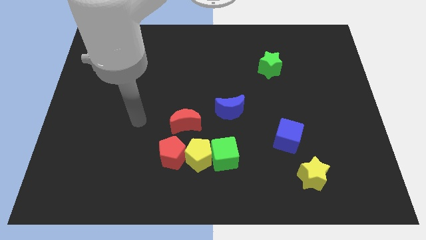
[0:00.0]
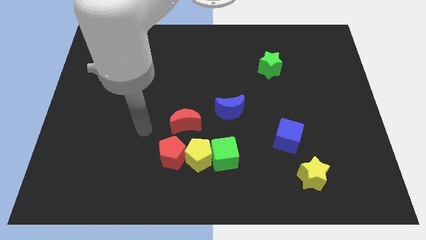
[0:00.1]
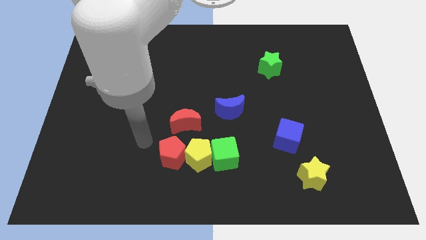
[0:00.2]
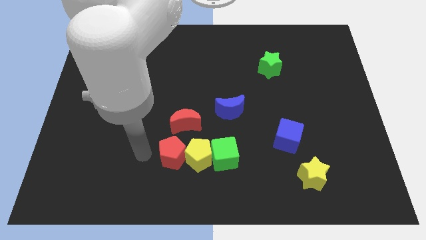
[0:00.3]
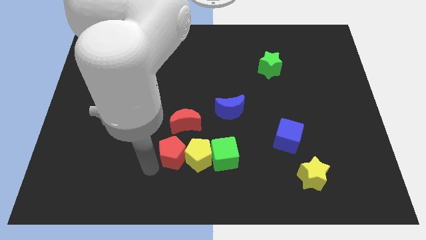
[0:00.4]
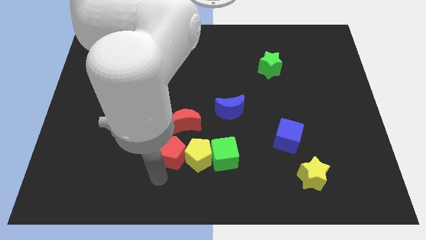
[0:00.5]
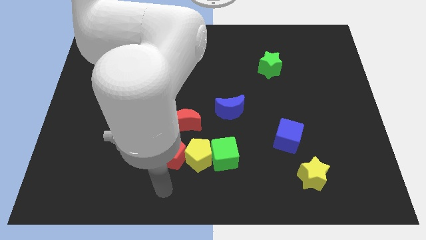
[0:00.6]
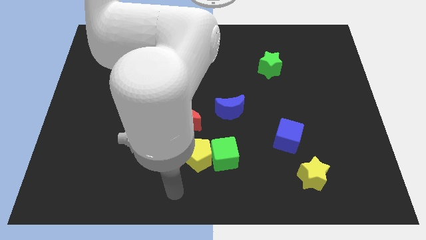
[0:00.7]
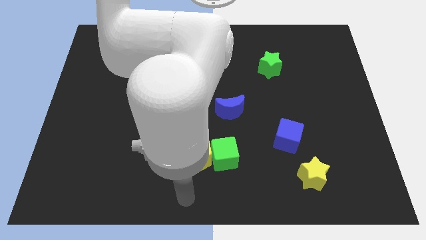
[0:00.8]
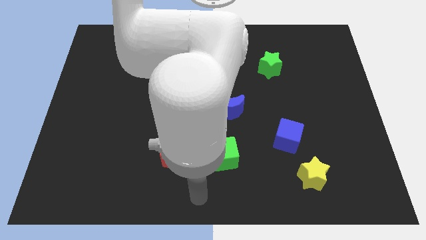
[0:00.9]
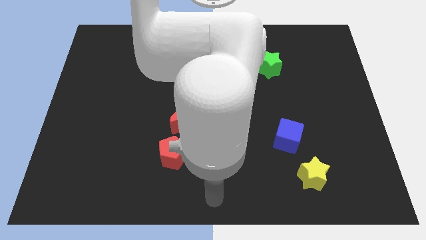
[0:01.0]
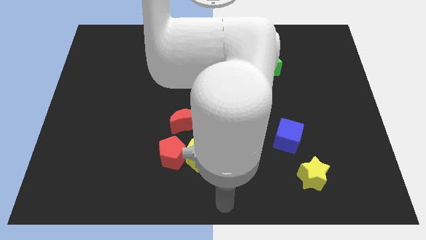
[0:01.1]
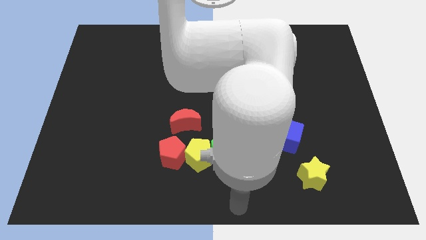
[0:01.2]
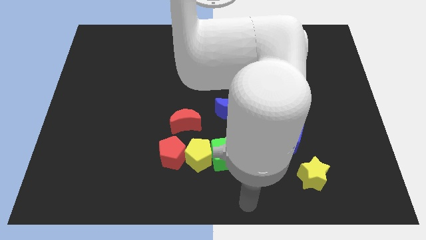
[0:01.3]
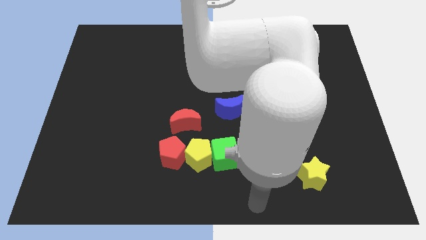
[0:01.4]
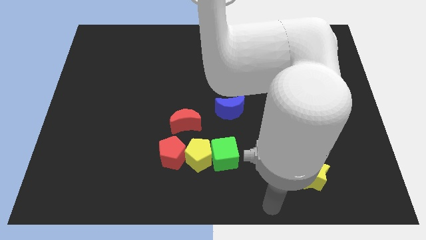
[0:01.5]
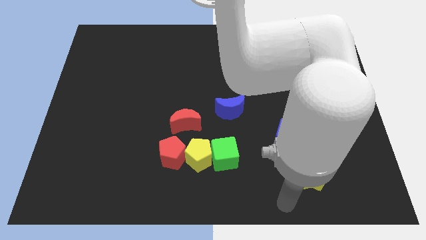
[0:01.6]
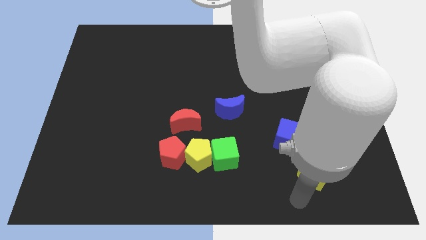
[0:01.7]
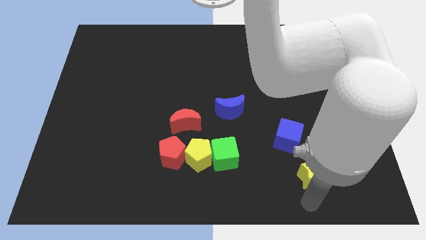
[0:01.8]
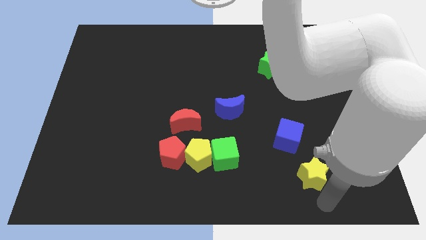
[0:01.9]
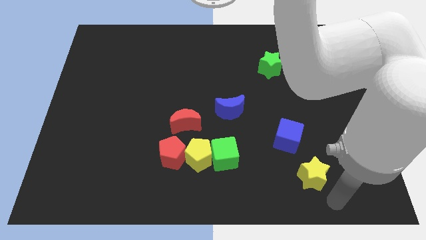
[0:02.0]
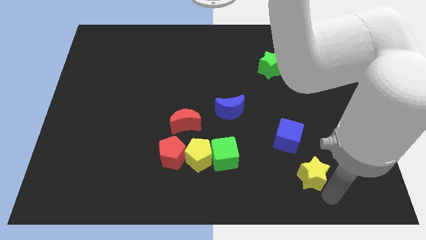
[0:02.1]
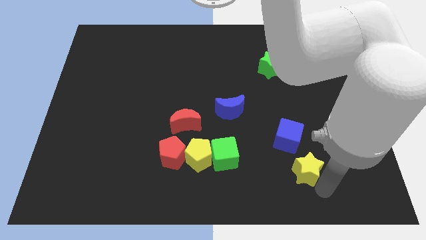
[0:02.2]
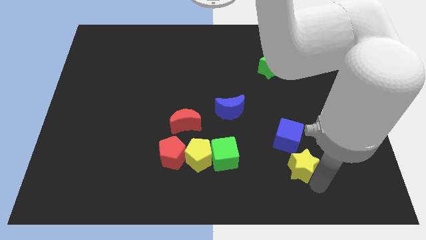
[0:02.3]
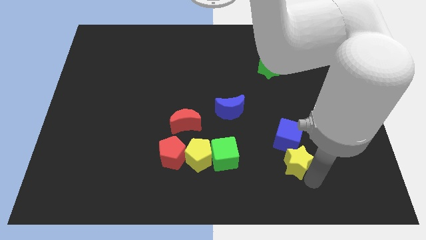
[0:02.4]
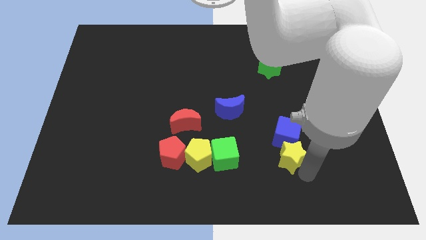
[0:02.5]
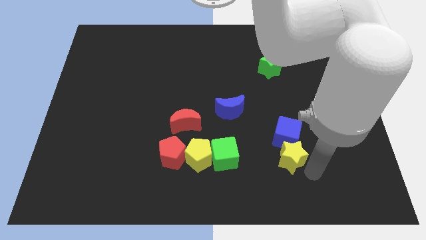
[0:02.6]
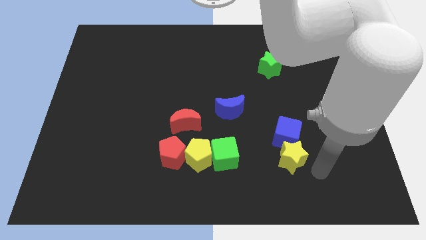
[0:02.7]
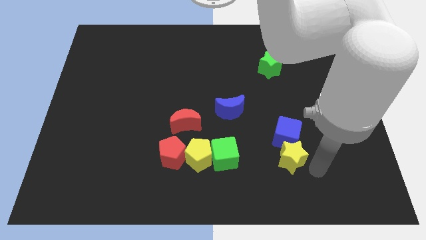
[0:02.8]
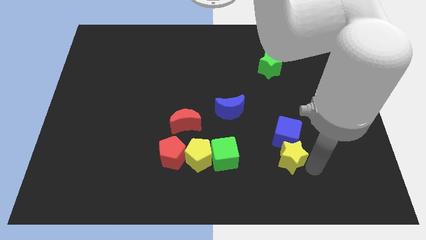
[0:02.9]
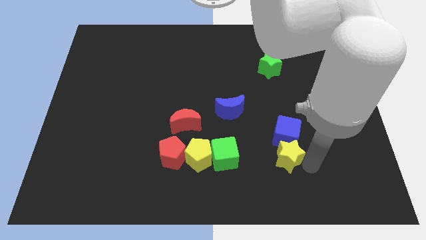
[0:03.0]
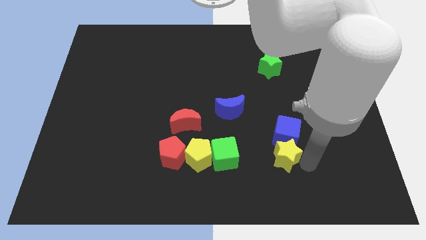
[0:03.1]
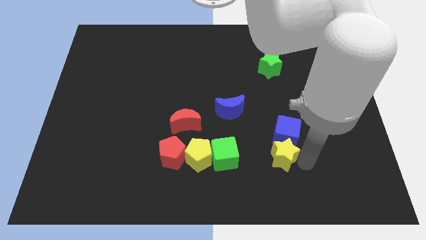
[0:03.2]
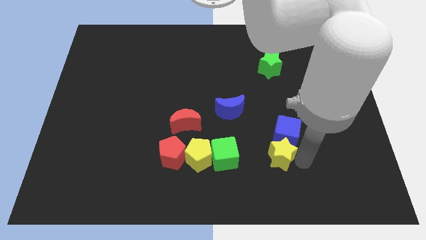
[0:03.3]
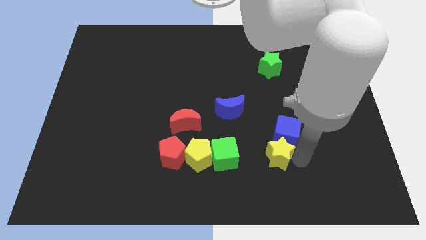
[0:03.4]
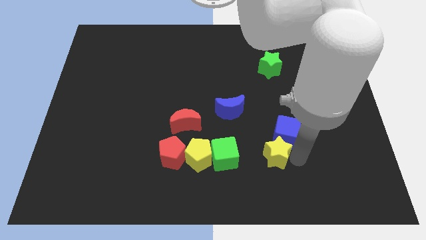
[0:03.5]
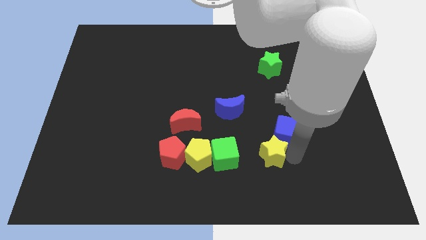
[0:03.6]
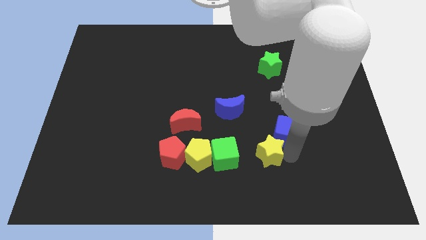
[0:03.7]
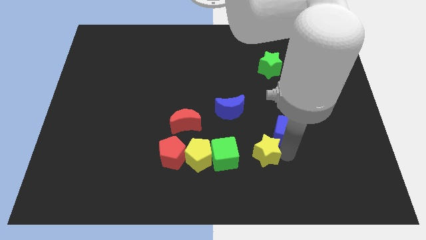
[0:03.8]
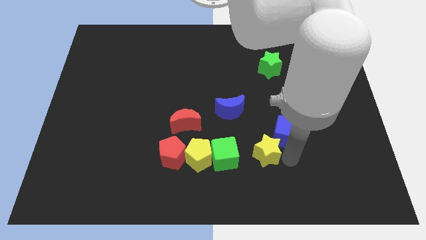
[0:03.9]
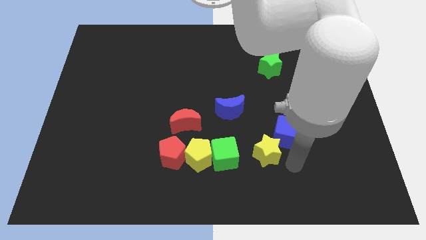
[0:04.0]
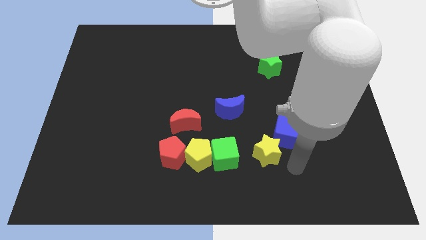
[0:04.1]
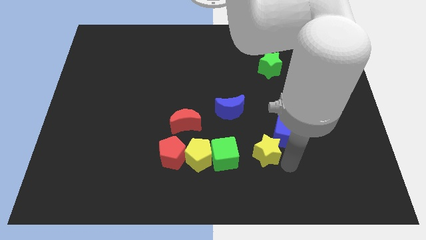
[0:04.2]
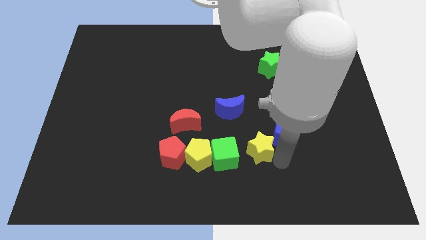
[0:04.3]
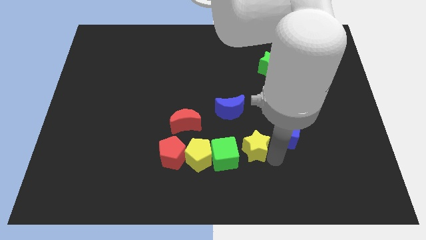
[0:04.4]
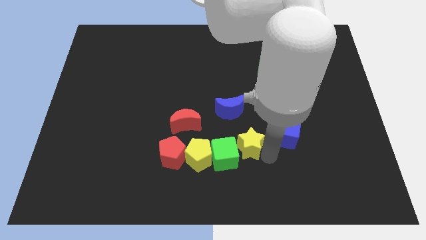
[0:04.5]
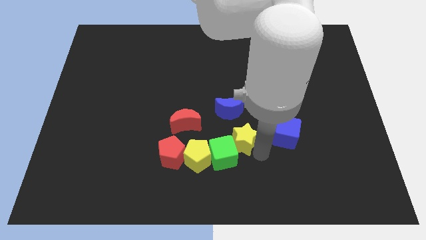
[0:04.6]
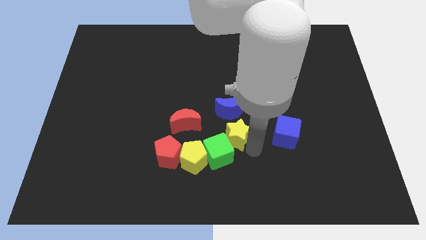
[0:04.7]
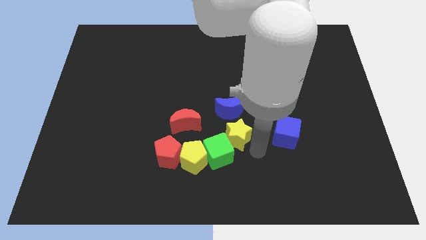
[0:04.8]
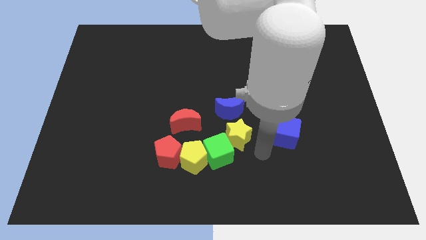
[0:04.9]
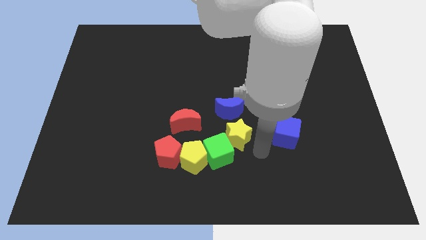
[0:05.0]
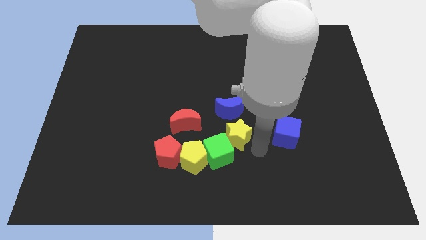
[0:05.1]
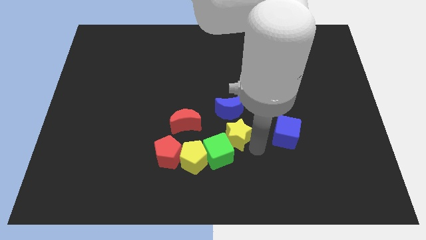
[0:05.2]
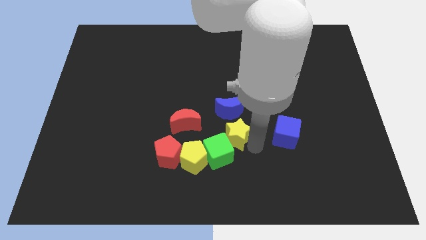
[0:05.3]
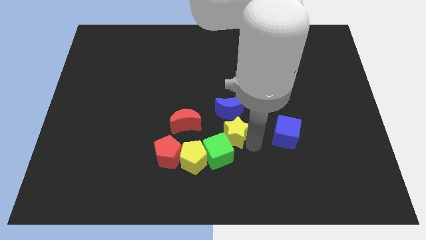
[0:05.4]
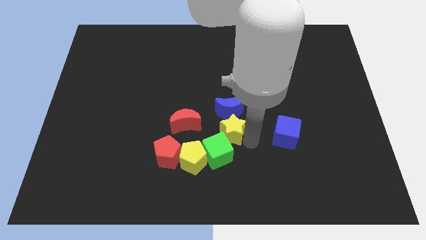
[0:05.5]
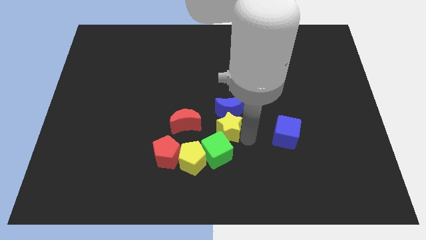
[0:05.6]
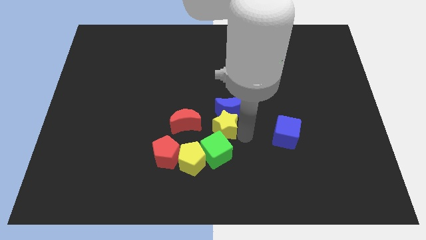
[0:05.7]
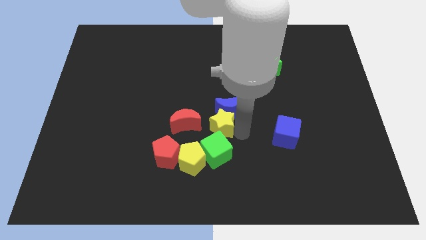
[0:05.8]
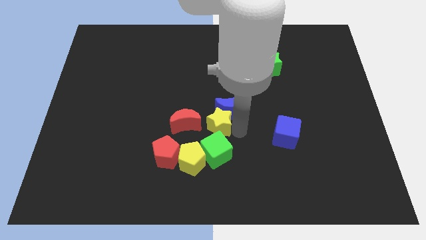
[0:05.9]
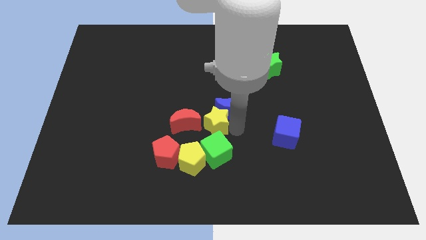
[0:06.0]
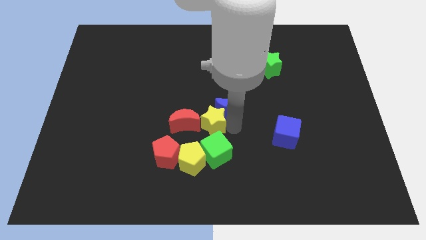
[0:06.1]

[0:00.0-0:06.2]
push the yellow star to the top side of the yellow pentagon

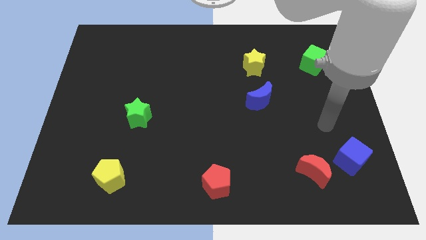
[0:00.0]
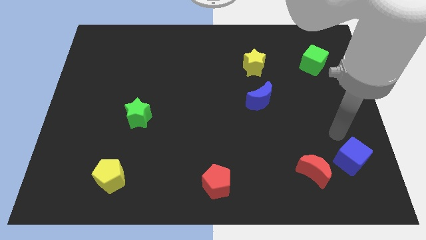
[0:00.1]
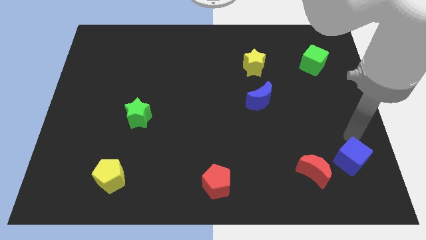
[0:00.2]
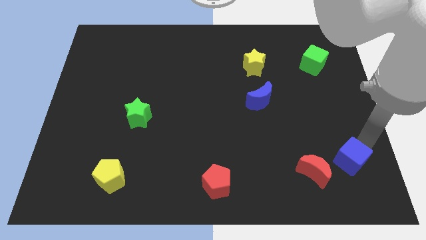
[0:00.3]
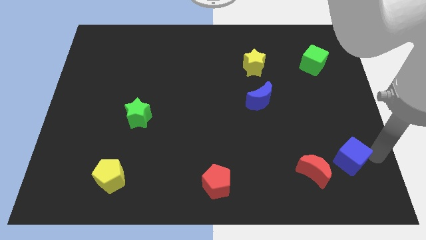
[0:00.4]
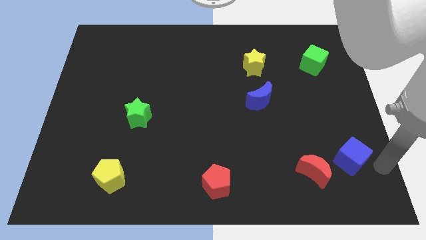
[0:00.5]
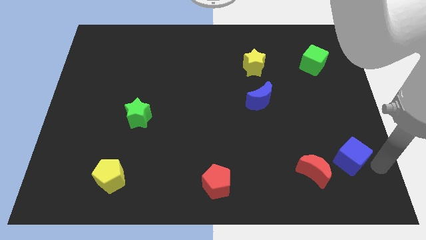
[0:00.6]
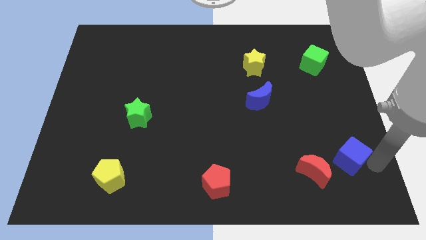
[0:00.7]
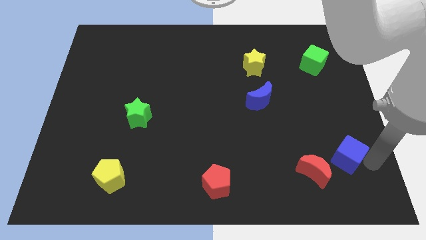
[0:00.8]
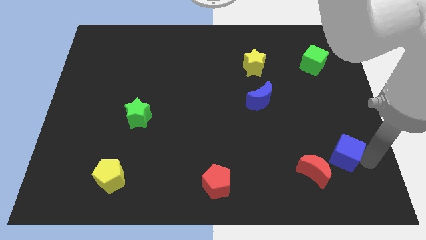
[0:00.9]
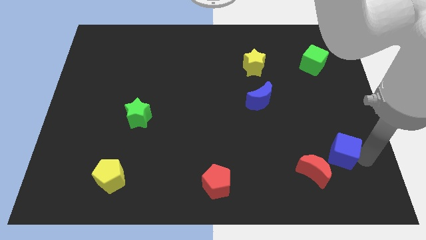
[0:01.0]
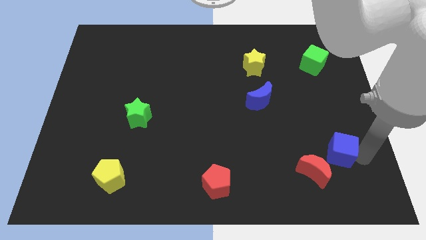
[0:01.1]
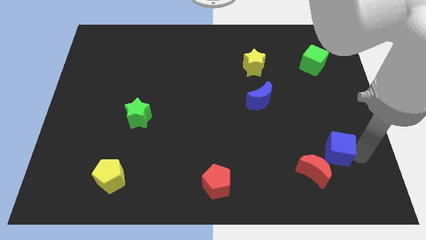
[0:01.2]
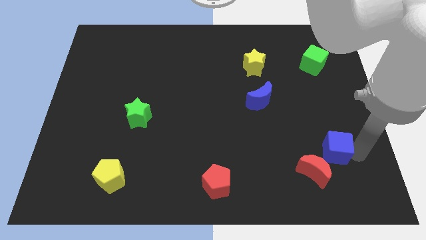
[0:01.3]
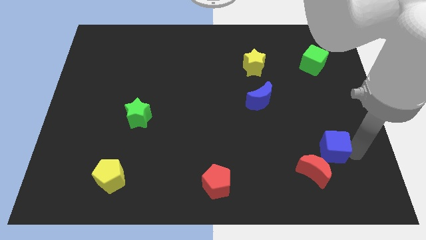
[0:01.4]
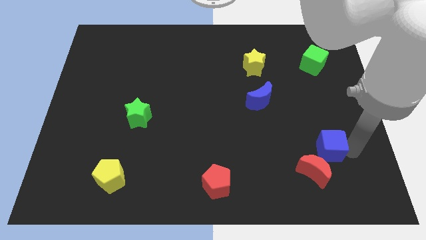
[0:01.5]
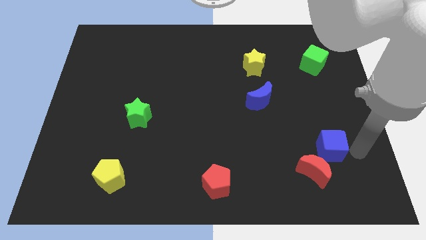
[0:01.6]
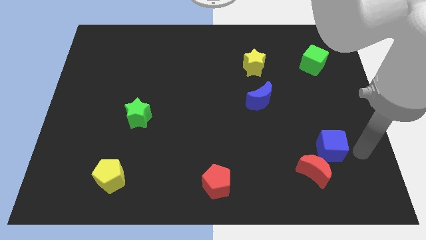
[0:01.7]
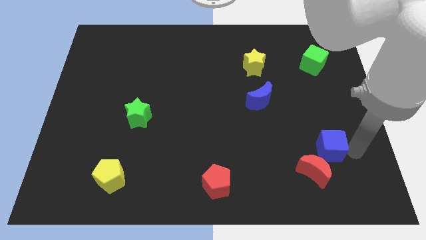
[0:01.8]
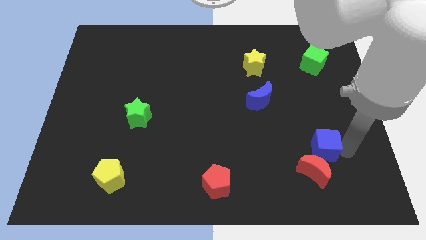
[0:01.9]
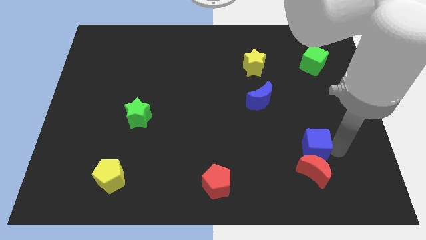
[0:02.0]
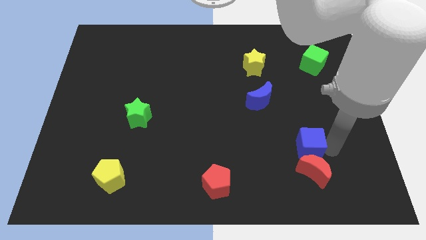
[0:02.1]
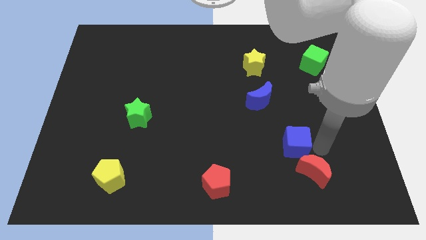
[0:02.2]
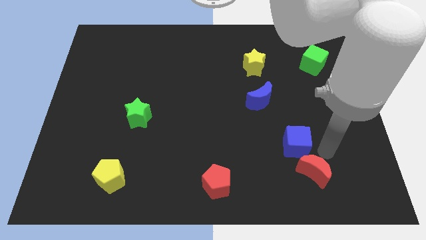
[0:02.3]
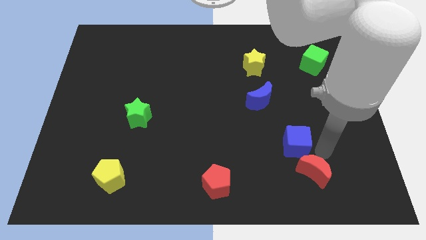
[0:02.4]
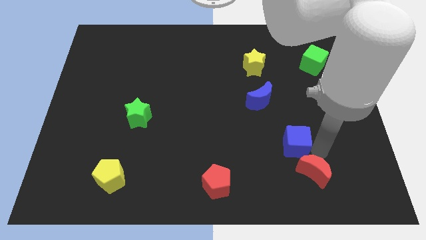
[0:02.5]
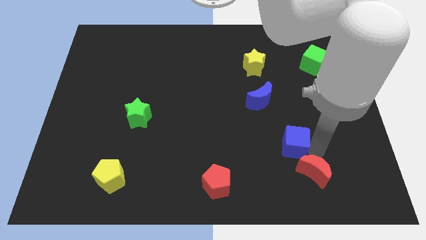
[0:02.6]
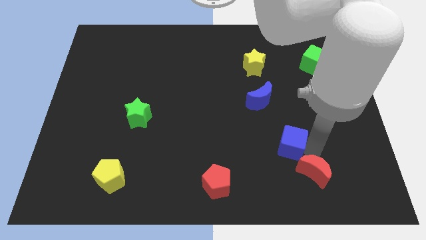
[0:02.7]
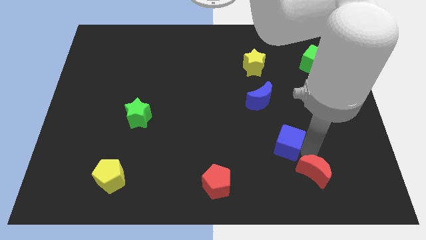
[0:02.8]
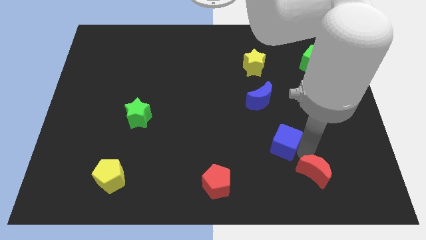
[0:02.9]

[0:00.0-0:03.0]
put the blue cube to the bottom side of the blue moon
